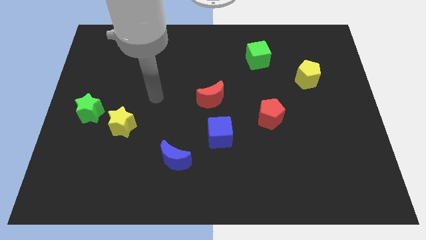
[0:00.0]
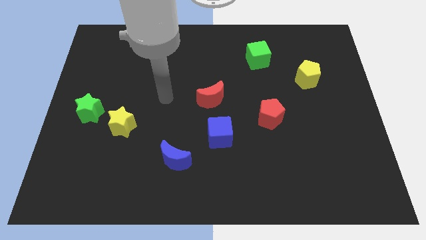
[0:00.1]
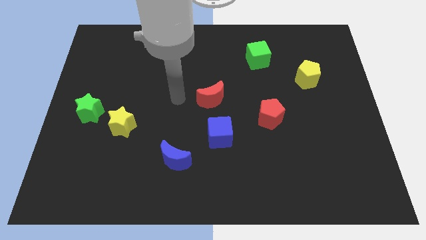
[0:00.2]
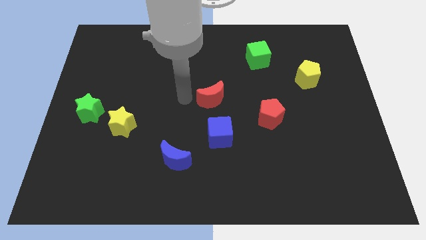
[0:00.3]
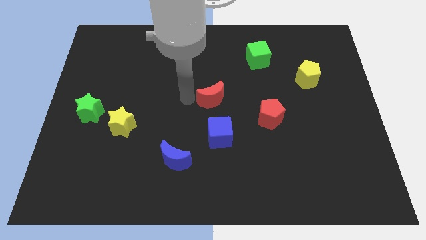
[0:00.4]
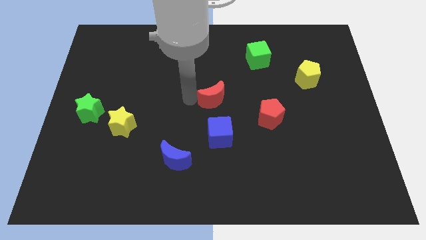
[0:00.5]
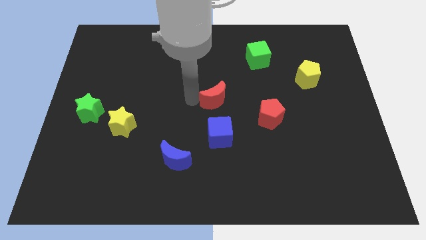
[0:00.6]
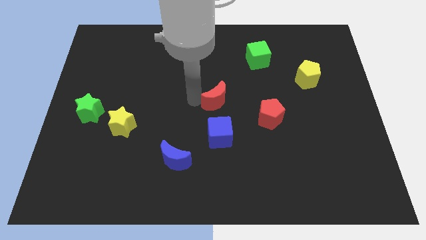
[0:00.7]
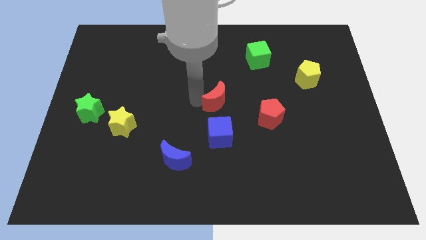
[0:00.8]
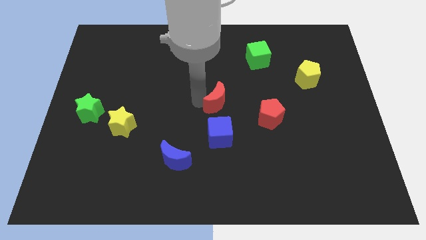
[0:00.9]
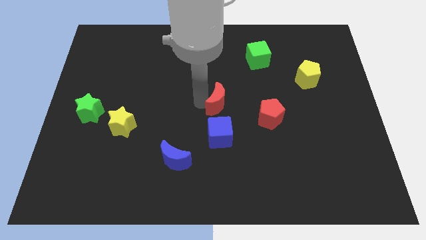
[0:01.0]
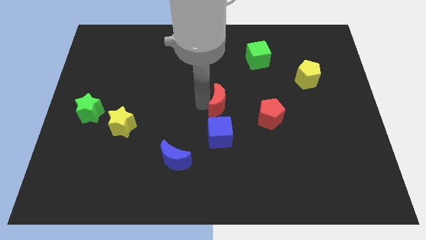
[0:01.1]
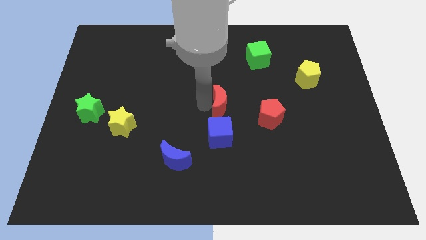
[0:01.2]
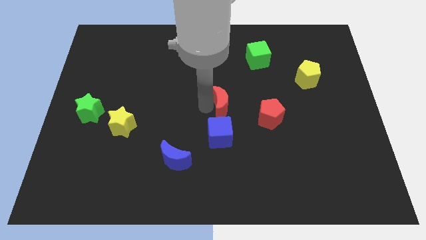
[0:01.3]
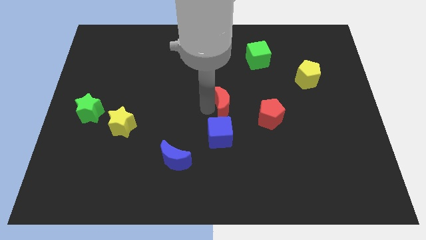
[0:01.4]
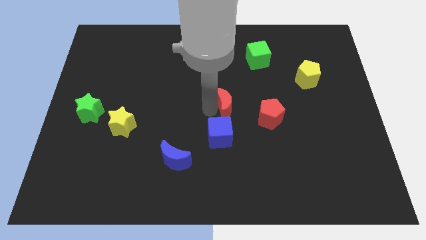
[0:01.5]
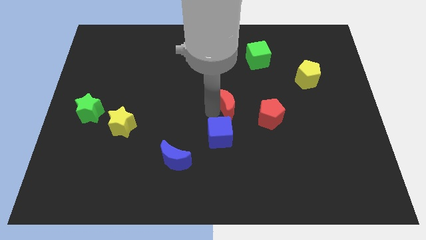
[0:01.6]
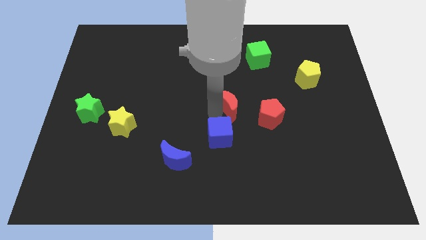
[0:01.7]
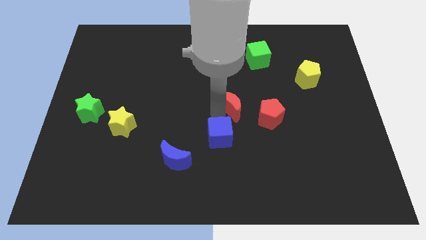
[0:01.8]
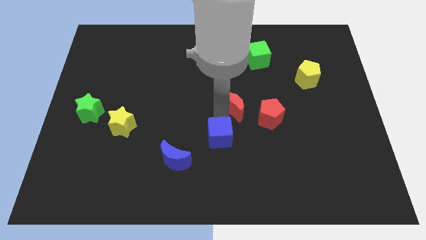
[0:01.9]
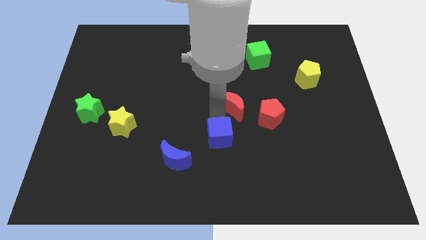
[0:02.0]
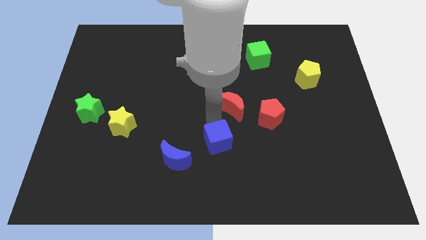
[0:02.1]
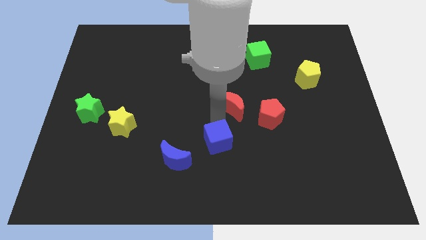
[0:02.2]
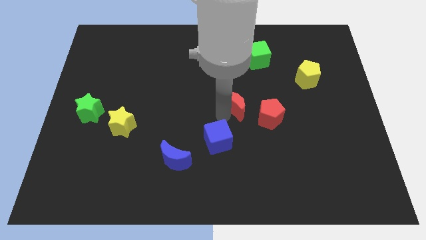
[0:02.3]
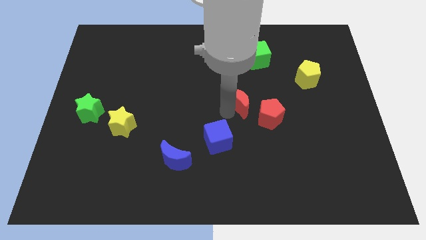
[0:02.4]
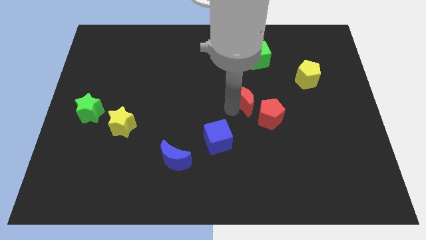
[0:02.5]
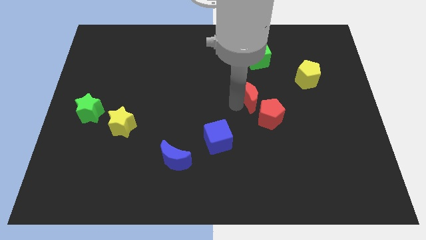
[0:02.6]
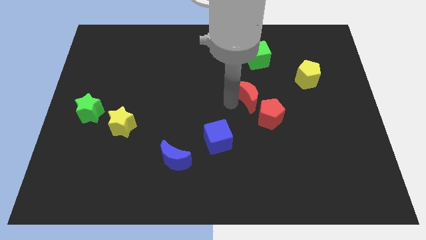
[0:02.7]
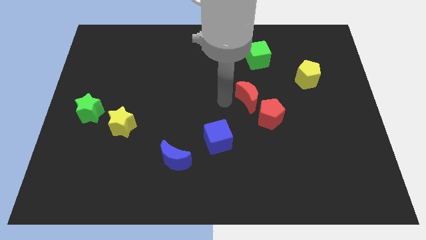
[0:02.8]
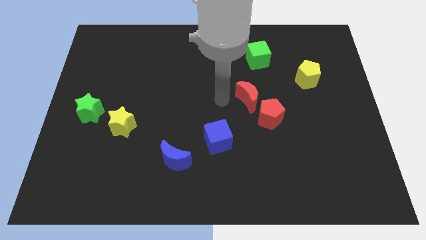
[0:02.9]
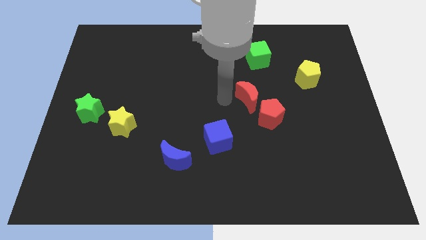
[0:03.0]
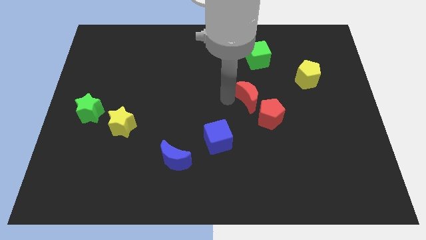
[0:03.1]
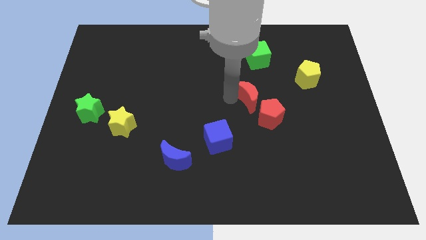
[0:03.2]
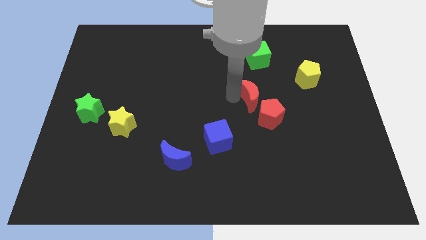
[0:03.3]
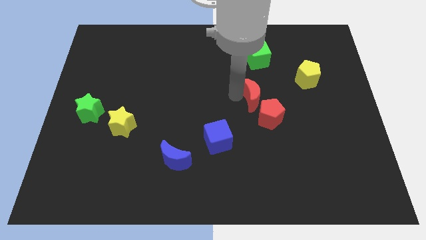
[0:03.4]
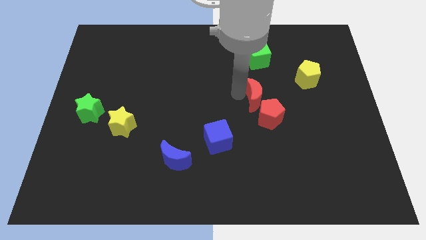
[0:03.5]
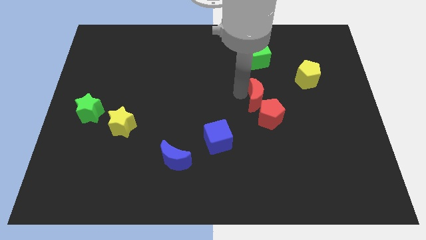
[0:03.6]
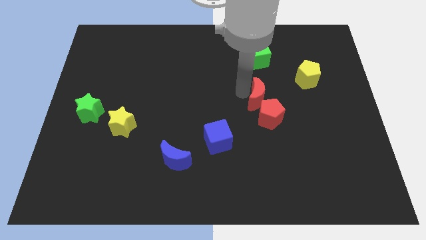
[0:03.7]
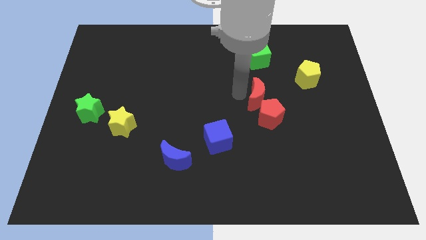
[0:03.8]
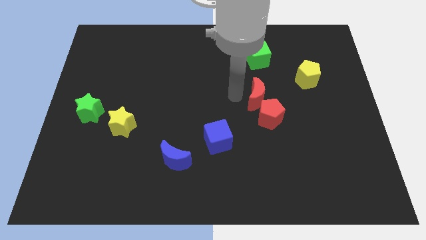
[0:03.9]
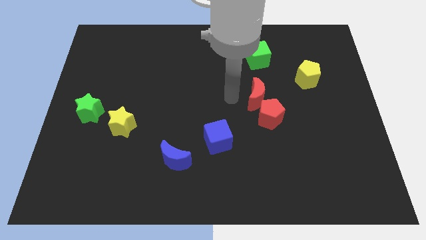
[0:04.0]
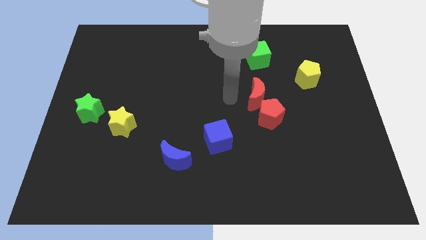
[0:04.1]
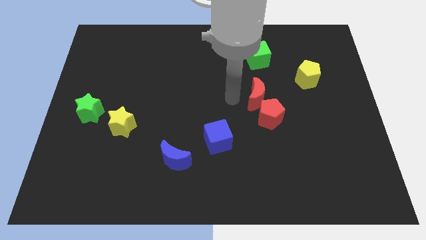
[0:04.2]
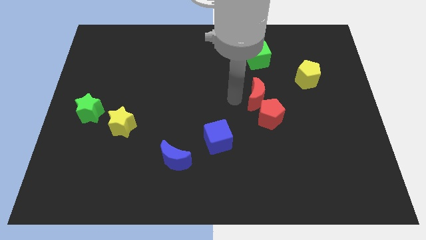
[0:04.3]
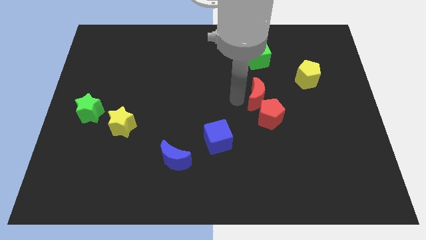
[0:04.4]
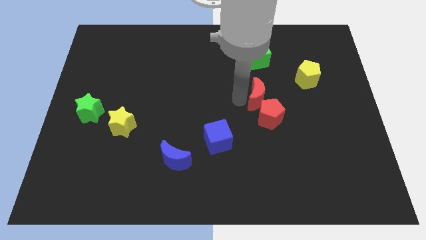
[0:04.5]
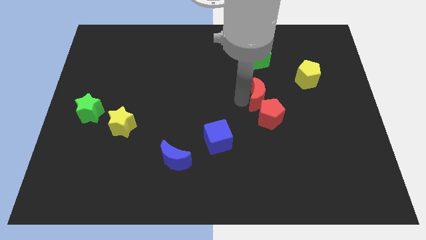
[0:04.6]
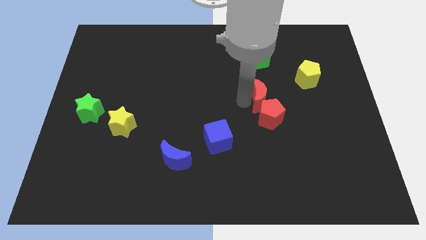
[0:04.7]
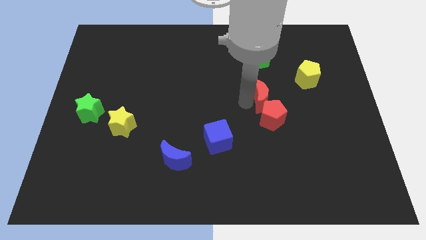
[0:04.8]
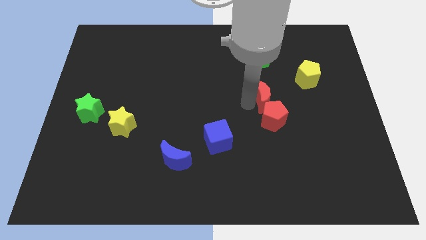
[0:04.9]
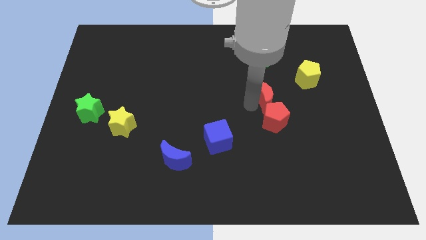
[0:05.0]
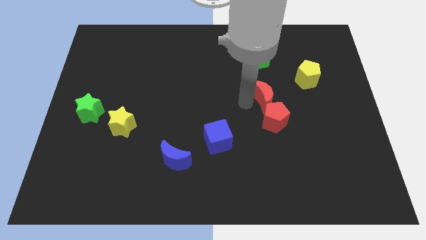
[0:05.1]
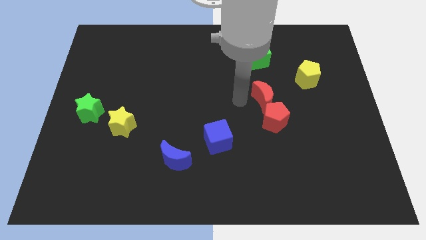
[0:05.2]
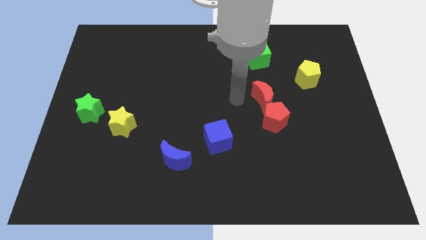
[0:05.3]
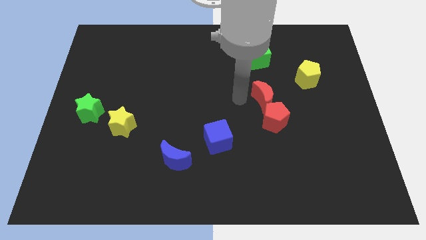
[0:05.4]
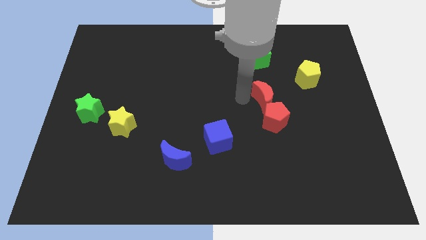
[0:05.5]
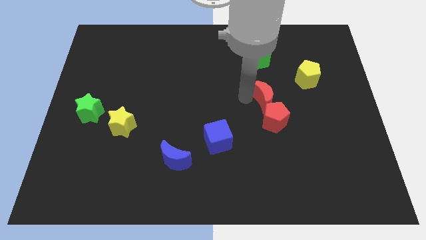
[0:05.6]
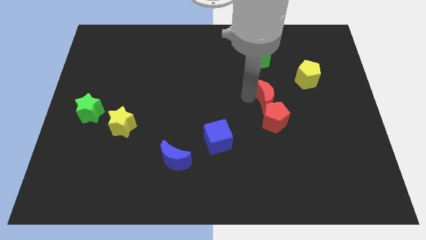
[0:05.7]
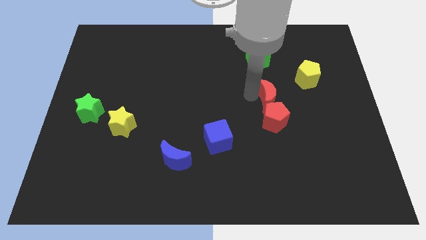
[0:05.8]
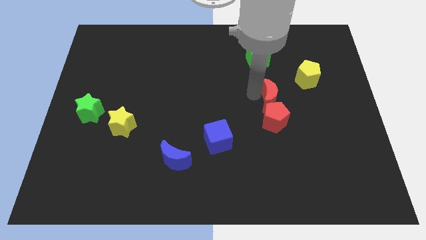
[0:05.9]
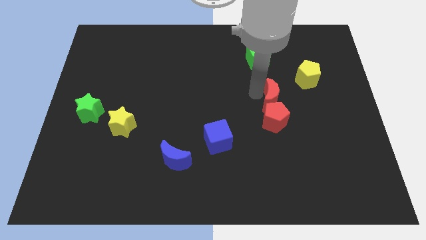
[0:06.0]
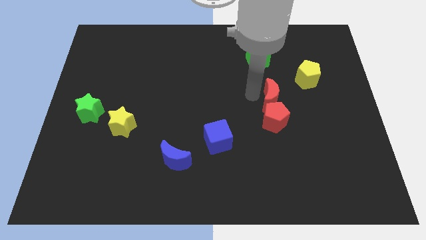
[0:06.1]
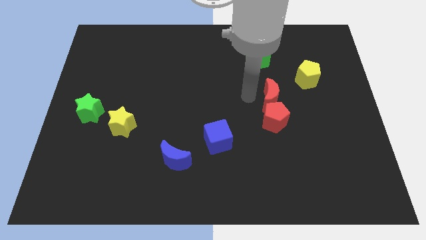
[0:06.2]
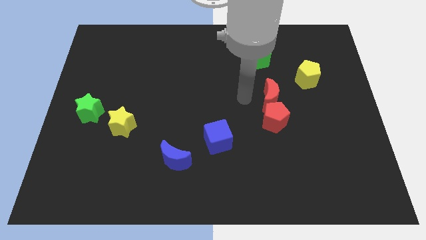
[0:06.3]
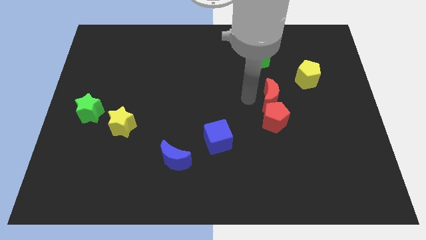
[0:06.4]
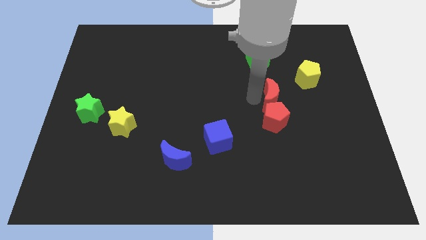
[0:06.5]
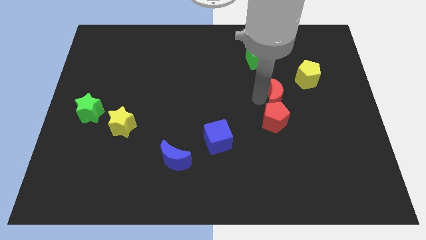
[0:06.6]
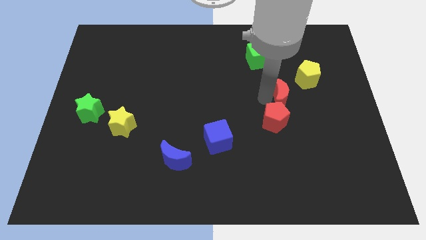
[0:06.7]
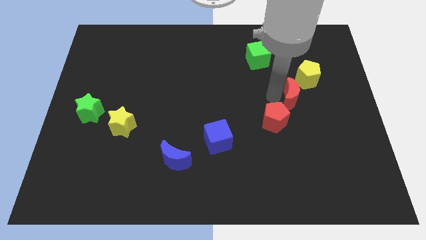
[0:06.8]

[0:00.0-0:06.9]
slide the red moon to the bottom side of the yellow pentagon

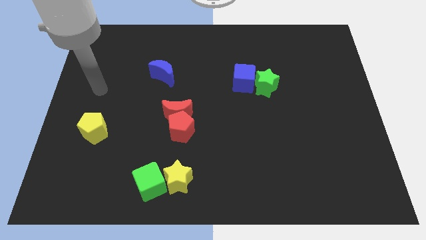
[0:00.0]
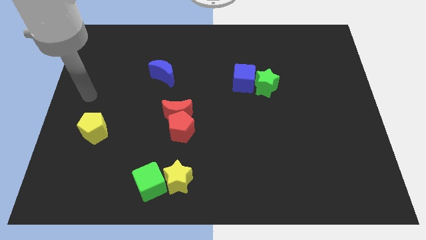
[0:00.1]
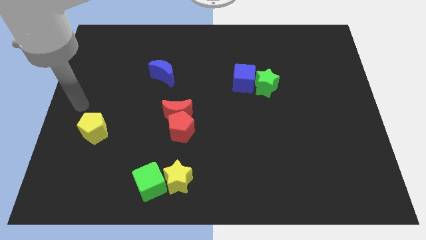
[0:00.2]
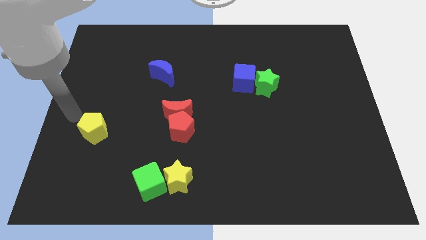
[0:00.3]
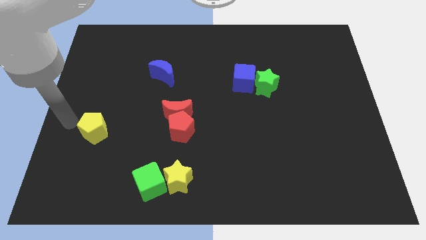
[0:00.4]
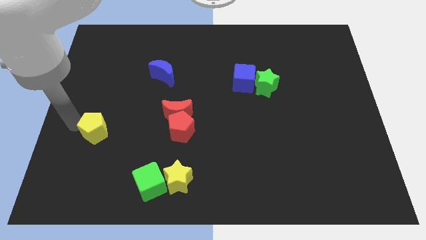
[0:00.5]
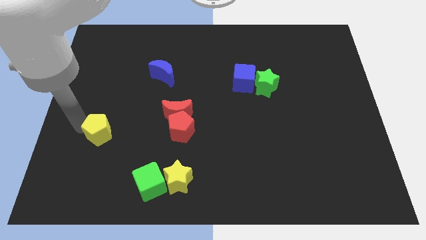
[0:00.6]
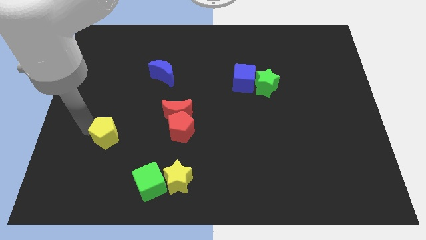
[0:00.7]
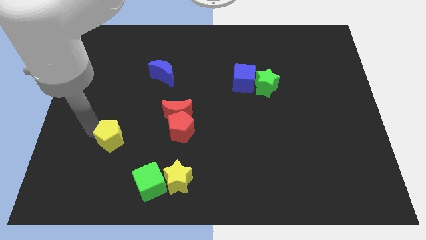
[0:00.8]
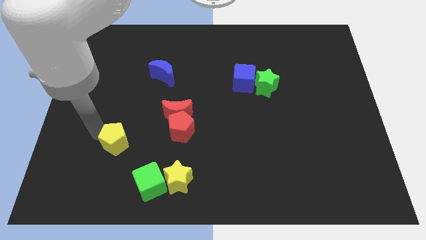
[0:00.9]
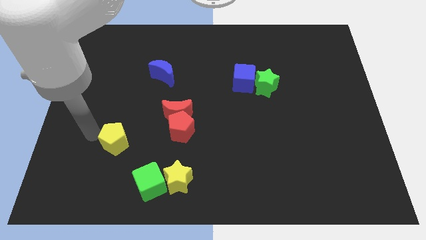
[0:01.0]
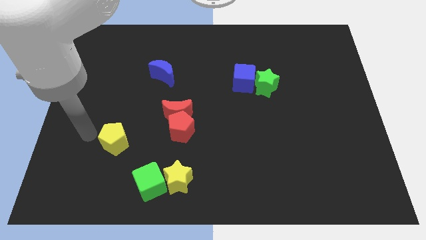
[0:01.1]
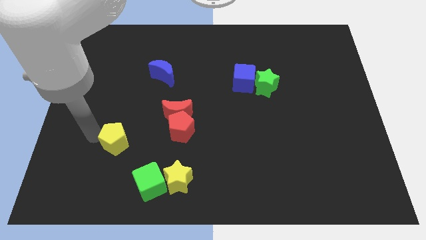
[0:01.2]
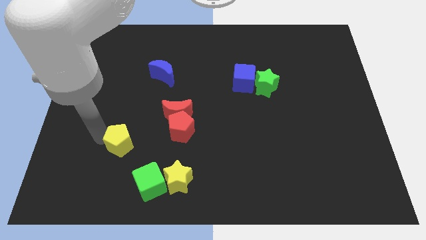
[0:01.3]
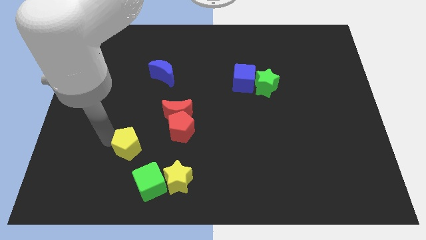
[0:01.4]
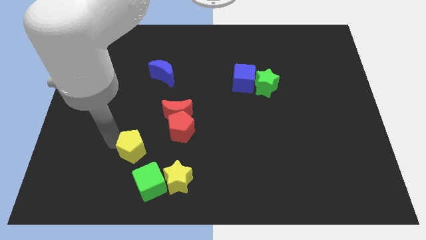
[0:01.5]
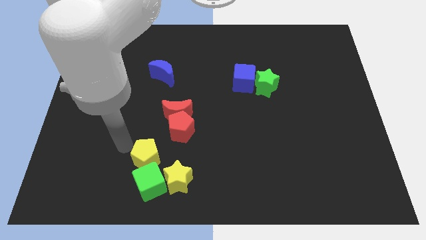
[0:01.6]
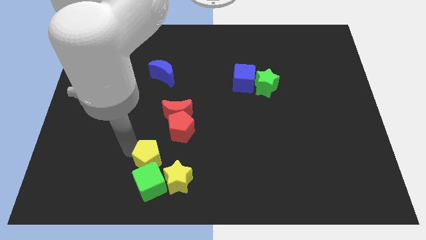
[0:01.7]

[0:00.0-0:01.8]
move the yellow pentagon to the top right of the green cube
